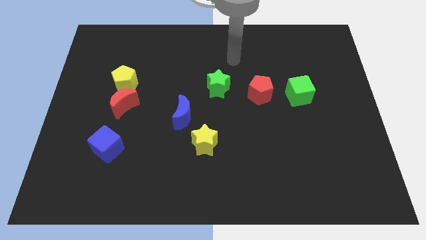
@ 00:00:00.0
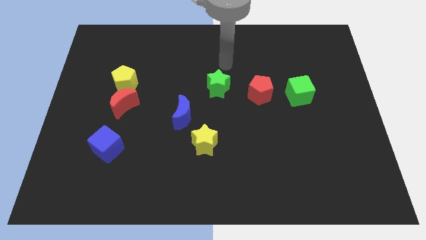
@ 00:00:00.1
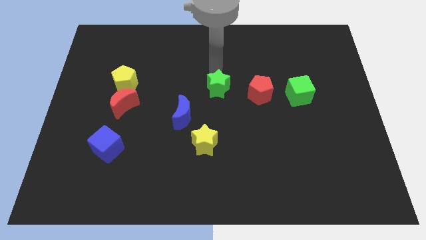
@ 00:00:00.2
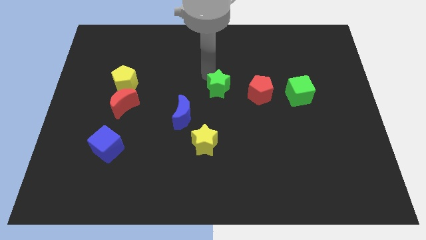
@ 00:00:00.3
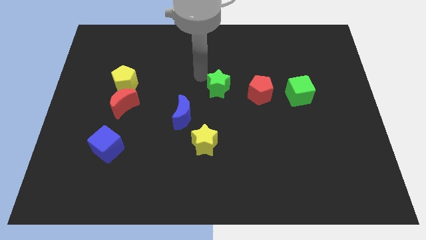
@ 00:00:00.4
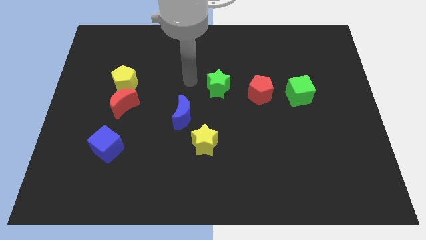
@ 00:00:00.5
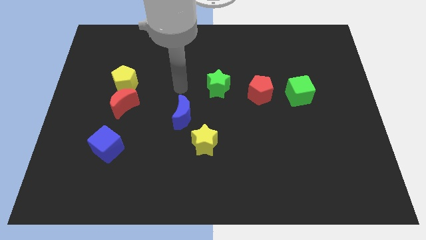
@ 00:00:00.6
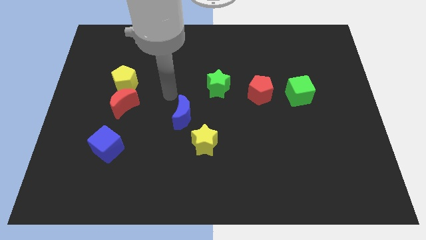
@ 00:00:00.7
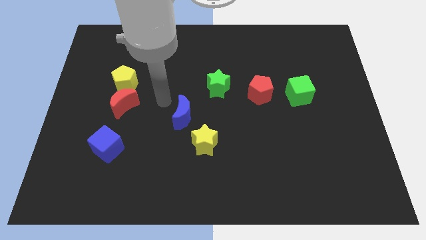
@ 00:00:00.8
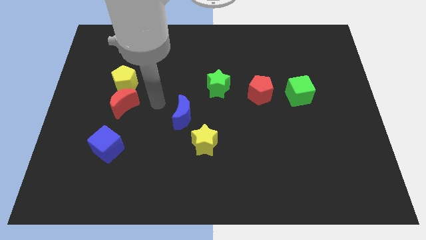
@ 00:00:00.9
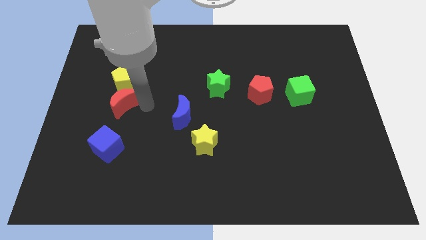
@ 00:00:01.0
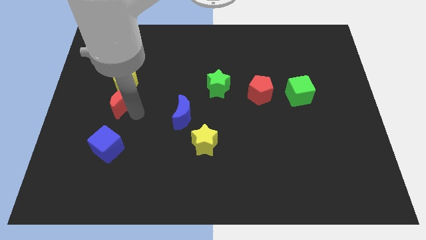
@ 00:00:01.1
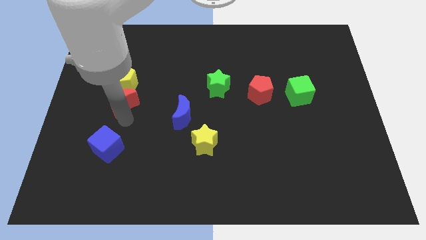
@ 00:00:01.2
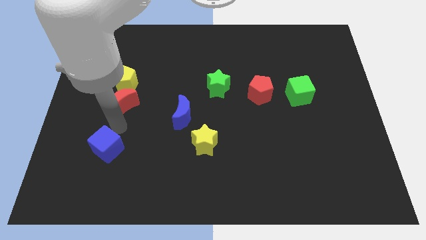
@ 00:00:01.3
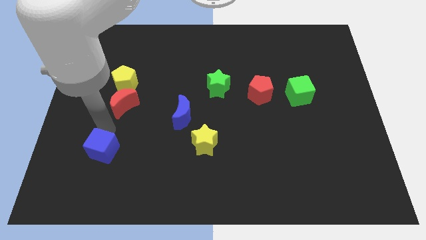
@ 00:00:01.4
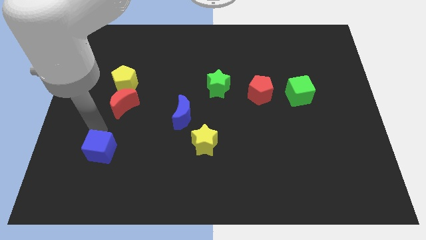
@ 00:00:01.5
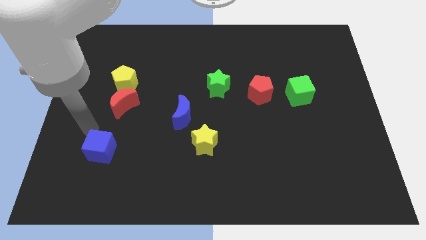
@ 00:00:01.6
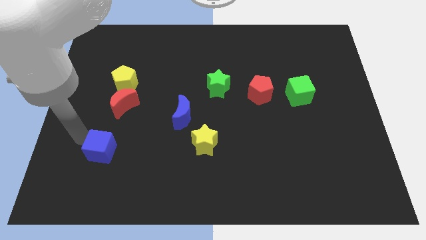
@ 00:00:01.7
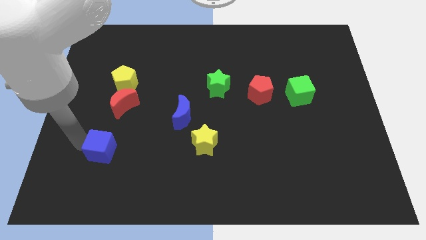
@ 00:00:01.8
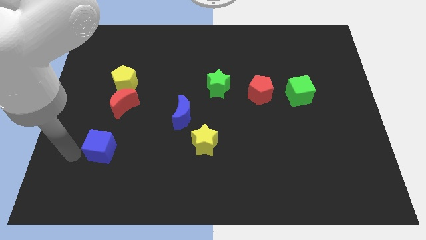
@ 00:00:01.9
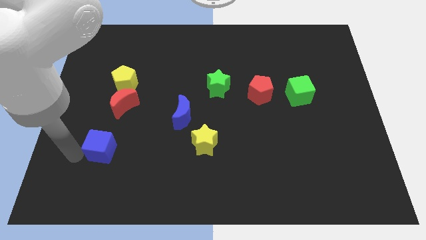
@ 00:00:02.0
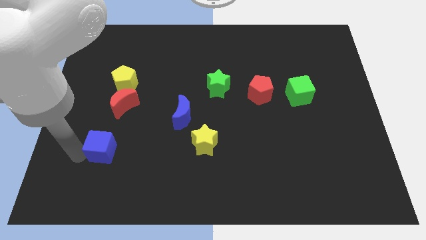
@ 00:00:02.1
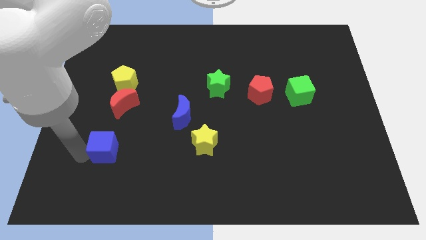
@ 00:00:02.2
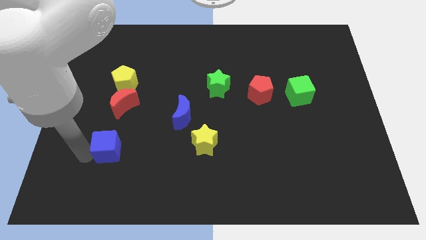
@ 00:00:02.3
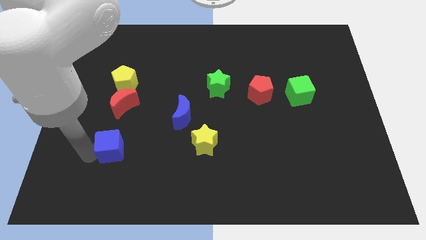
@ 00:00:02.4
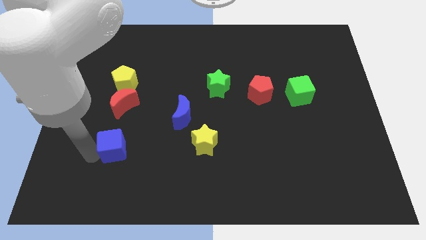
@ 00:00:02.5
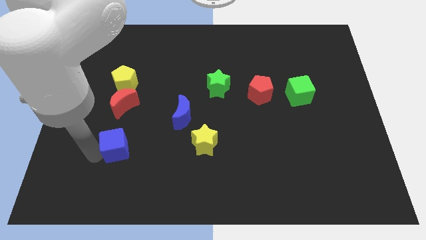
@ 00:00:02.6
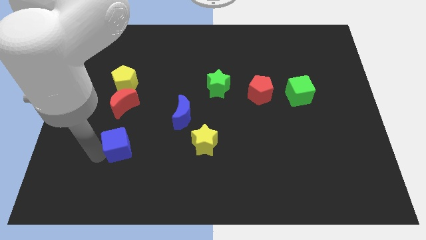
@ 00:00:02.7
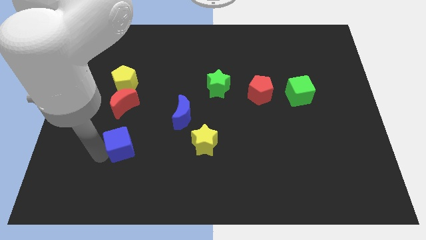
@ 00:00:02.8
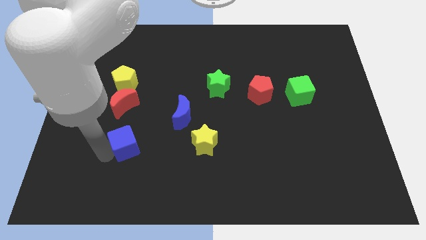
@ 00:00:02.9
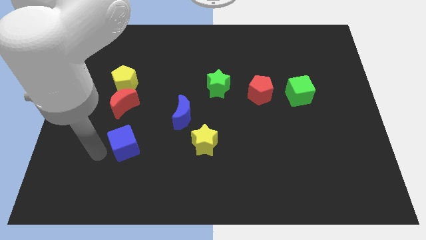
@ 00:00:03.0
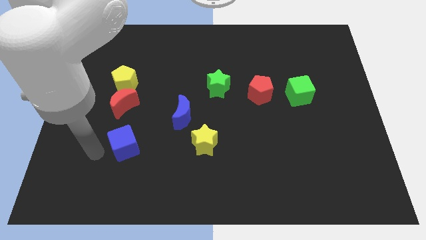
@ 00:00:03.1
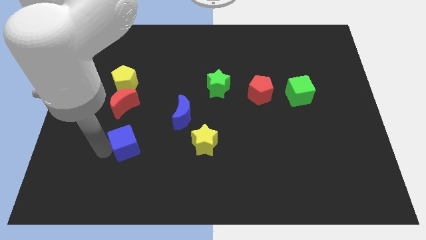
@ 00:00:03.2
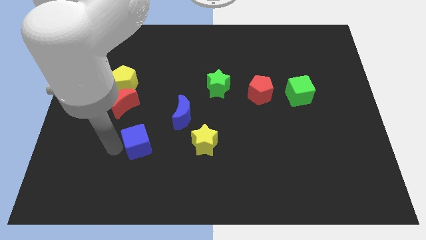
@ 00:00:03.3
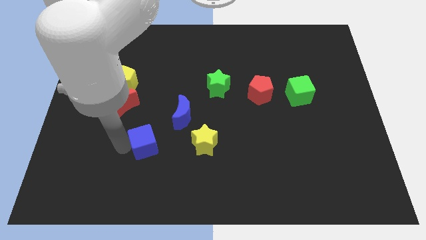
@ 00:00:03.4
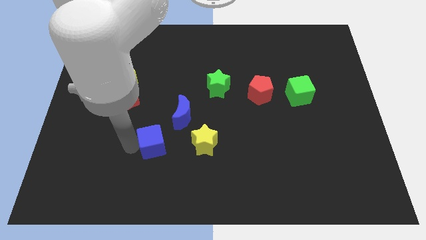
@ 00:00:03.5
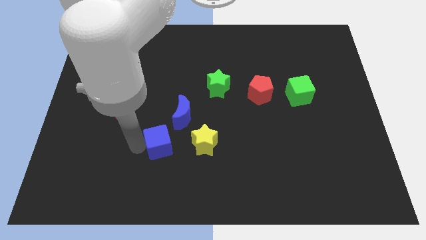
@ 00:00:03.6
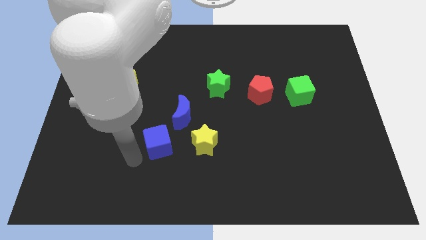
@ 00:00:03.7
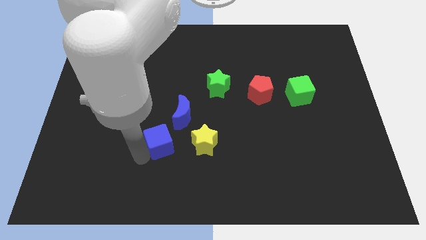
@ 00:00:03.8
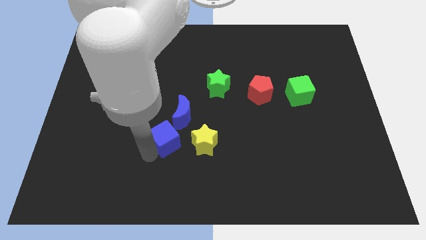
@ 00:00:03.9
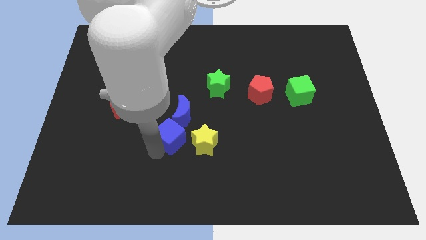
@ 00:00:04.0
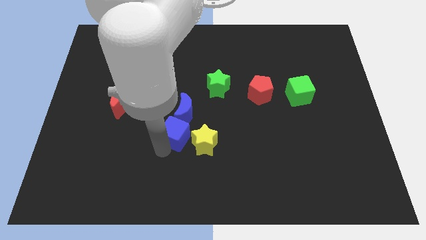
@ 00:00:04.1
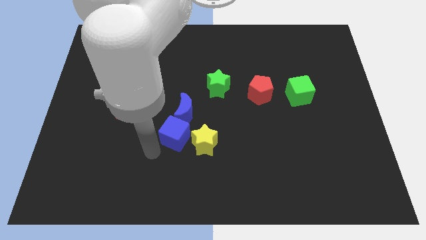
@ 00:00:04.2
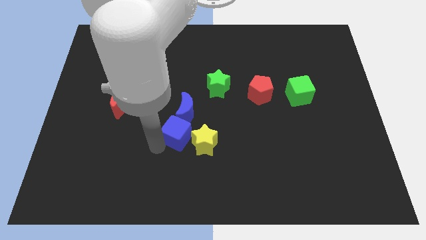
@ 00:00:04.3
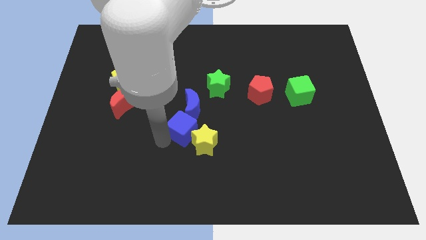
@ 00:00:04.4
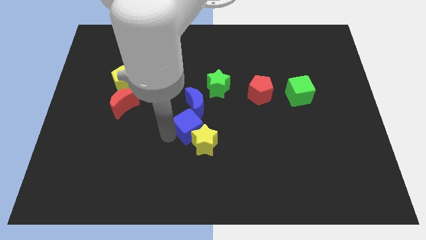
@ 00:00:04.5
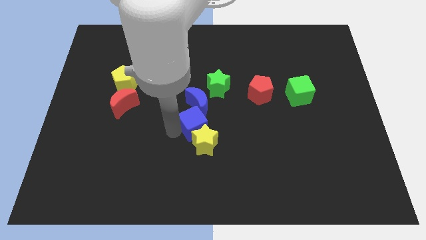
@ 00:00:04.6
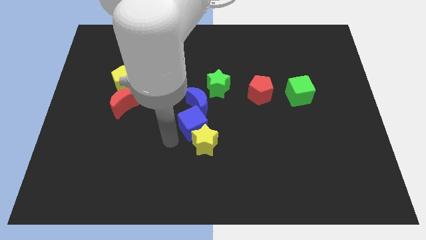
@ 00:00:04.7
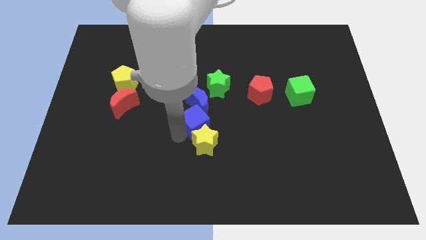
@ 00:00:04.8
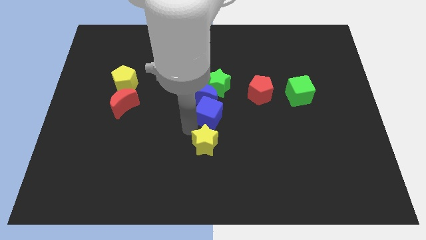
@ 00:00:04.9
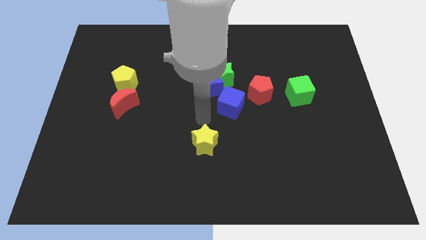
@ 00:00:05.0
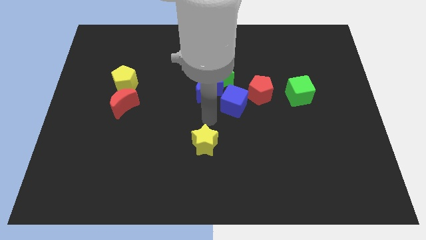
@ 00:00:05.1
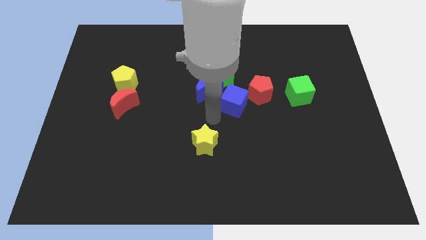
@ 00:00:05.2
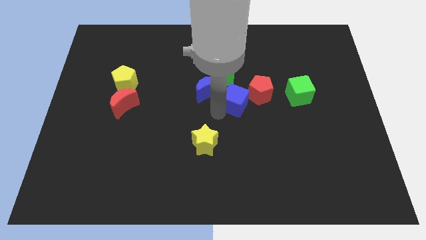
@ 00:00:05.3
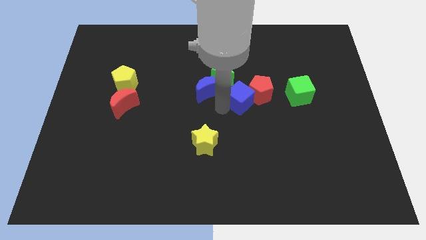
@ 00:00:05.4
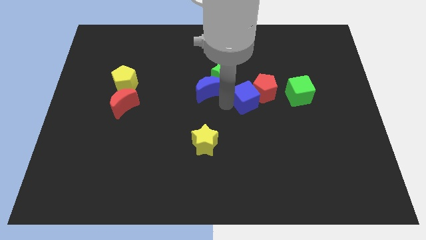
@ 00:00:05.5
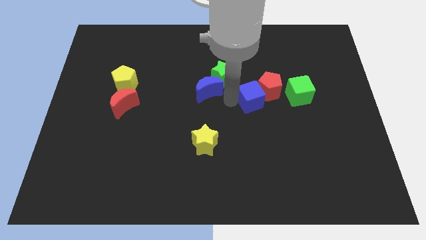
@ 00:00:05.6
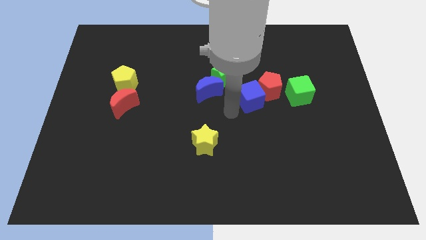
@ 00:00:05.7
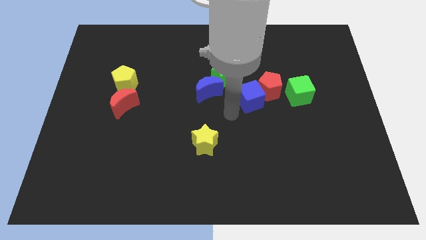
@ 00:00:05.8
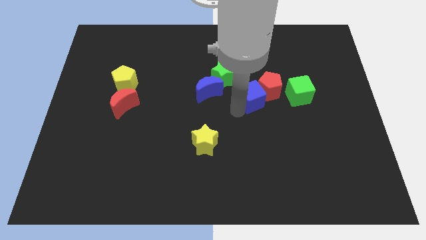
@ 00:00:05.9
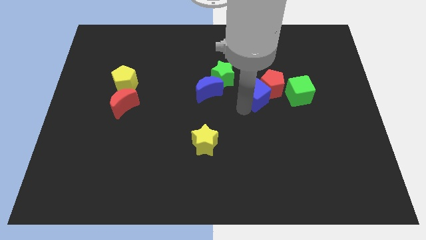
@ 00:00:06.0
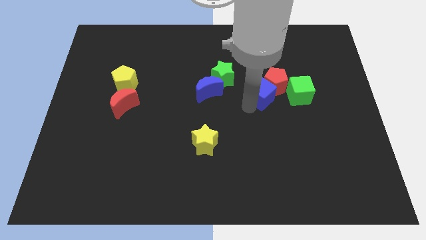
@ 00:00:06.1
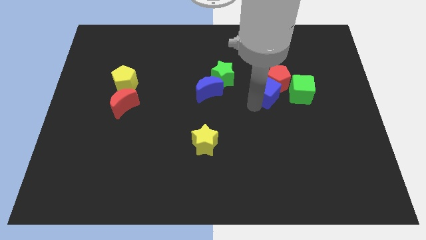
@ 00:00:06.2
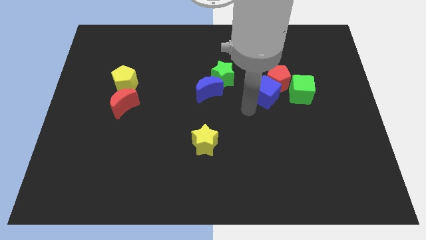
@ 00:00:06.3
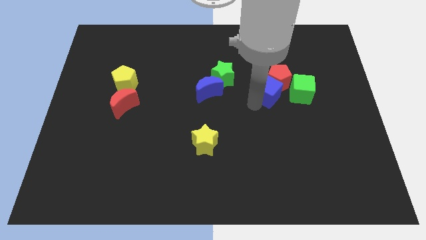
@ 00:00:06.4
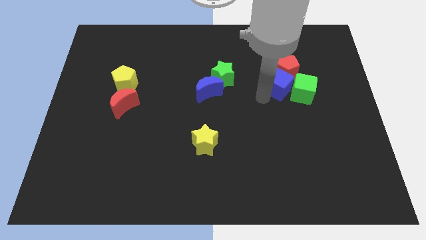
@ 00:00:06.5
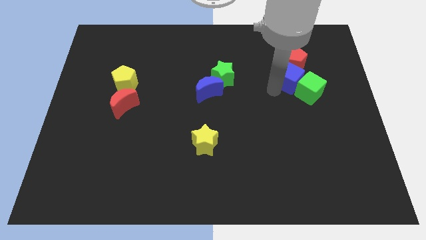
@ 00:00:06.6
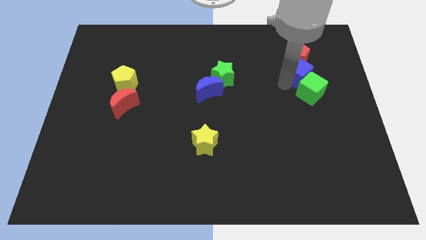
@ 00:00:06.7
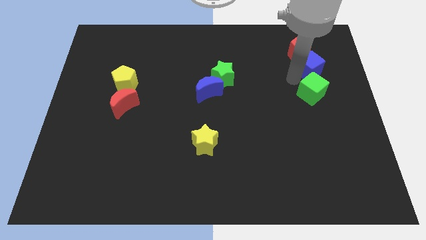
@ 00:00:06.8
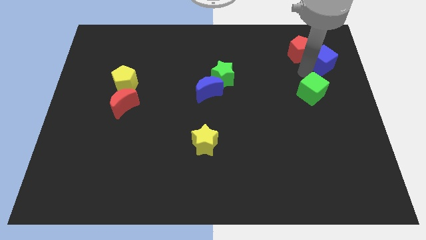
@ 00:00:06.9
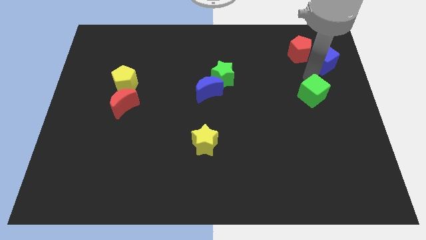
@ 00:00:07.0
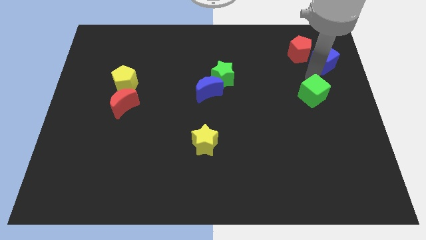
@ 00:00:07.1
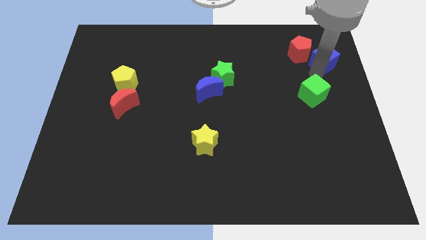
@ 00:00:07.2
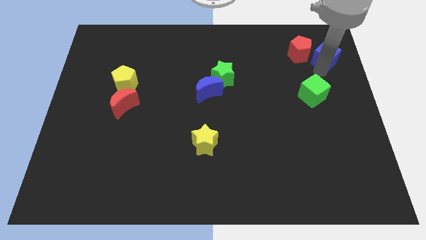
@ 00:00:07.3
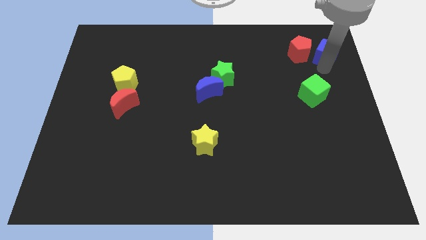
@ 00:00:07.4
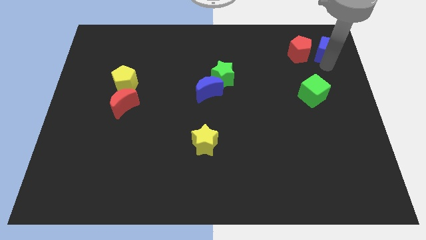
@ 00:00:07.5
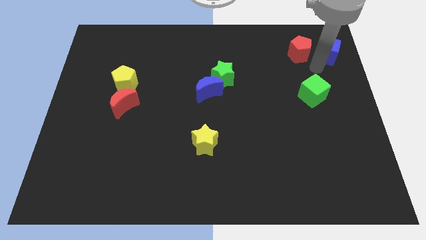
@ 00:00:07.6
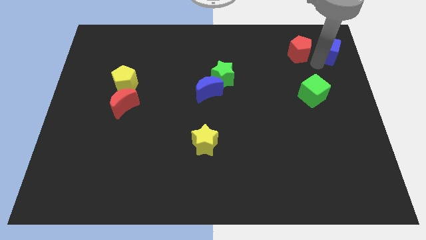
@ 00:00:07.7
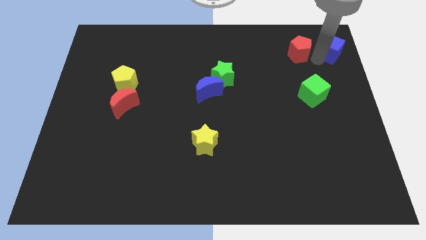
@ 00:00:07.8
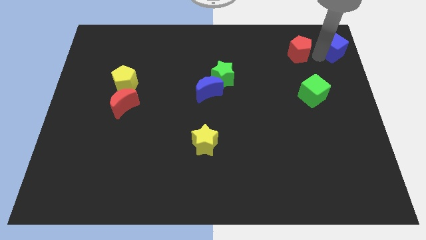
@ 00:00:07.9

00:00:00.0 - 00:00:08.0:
move the blue cube to the top right corner
